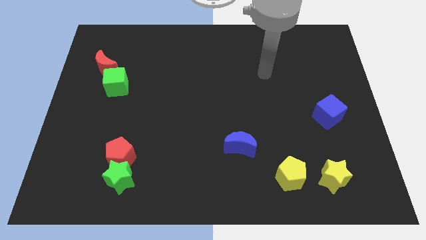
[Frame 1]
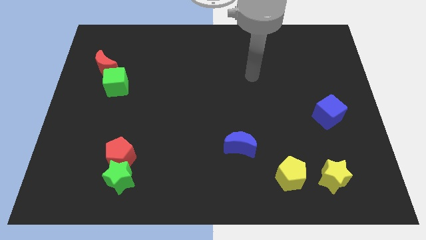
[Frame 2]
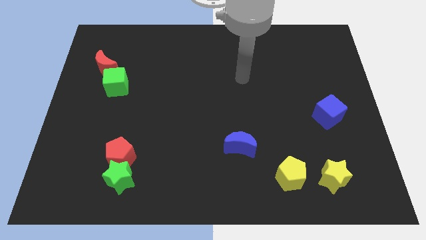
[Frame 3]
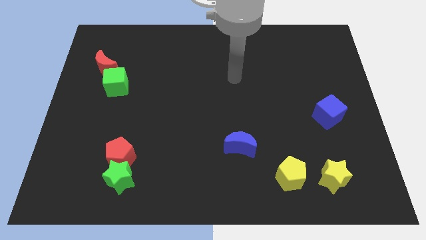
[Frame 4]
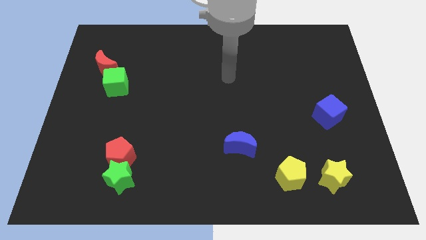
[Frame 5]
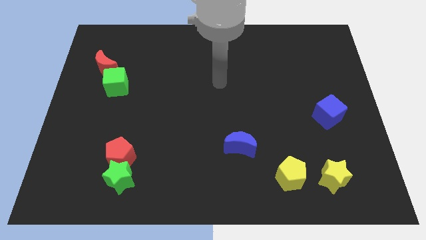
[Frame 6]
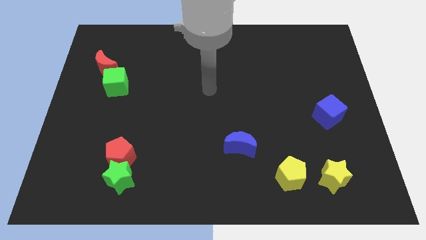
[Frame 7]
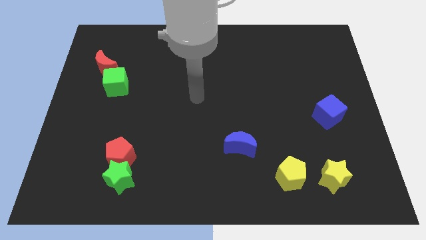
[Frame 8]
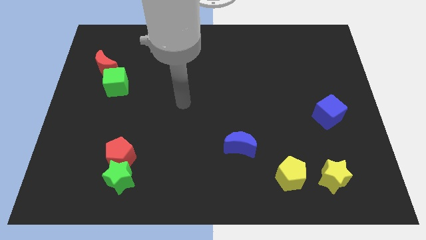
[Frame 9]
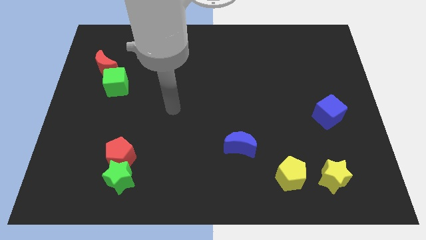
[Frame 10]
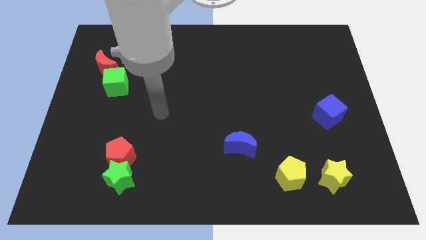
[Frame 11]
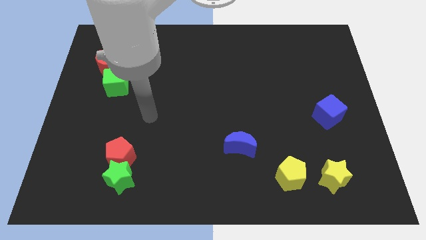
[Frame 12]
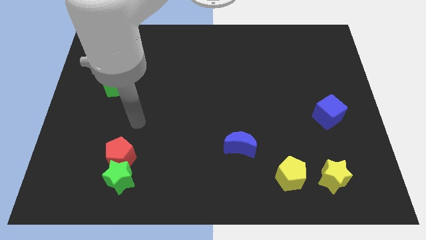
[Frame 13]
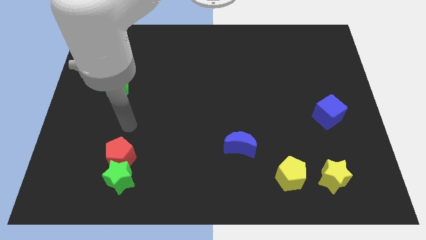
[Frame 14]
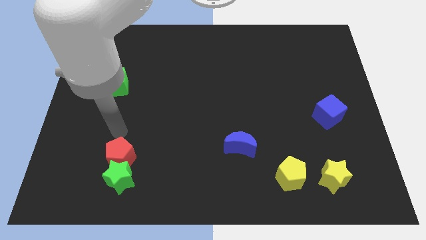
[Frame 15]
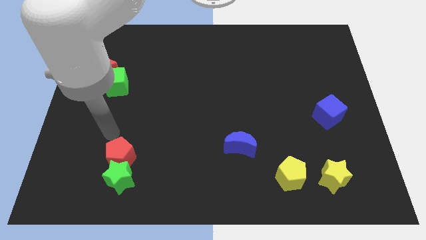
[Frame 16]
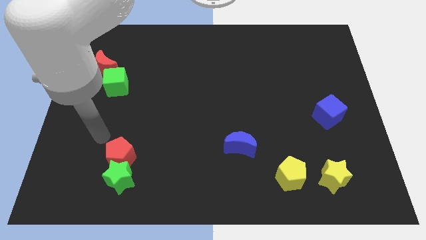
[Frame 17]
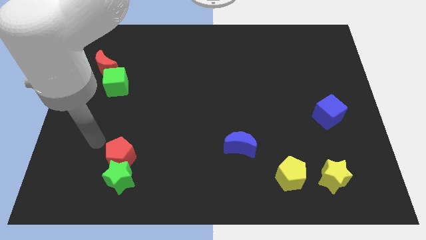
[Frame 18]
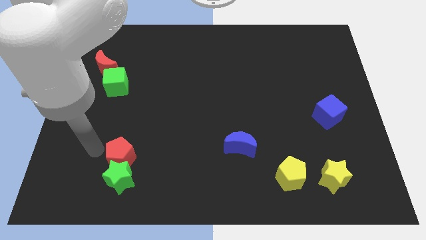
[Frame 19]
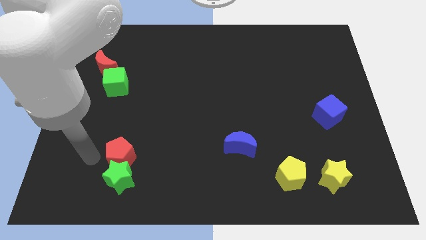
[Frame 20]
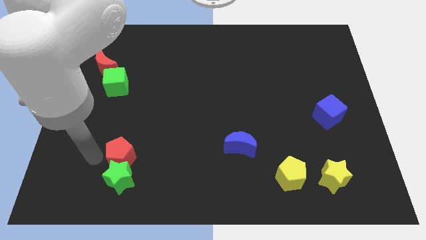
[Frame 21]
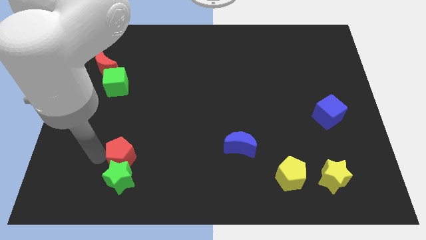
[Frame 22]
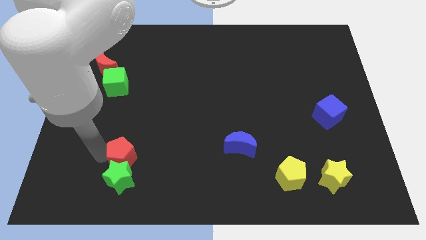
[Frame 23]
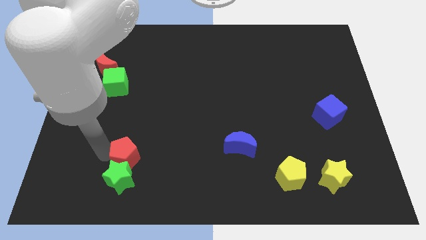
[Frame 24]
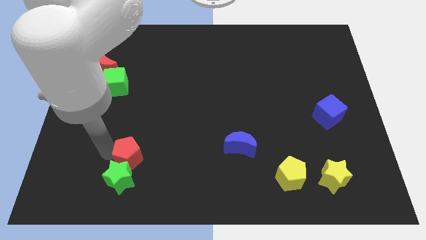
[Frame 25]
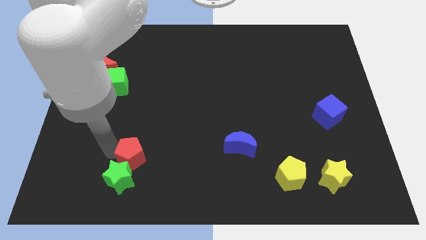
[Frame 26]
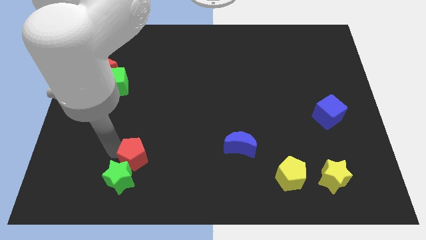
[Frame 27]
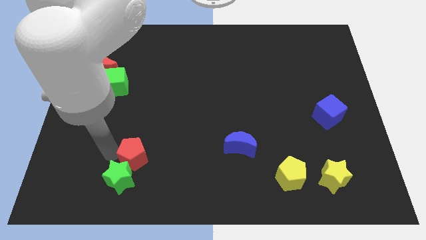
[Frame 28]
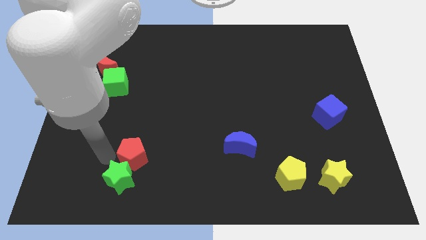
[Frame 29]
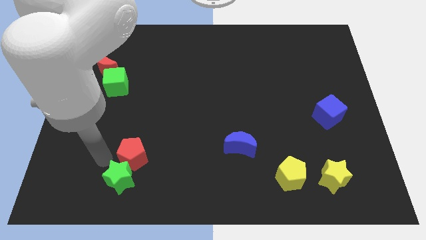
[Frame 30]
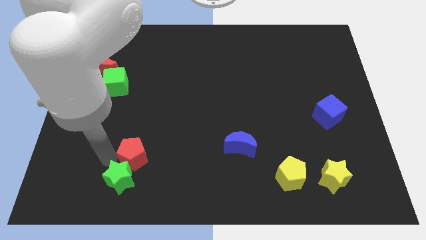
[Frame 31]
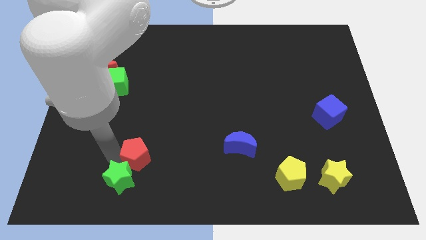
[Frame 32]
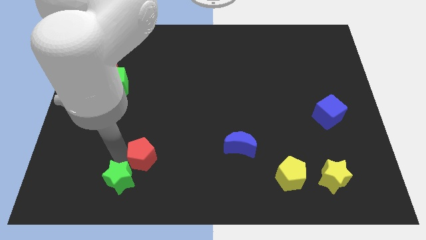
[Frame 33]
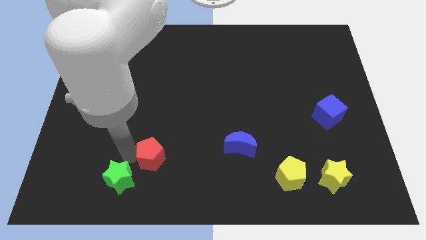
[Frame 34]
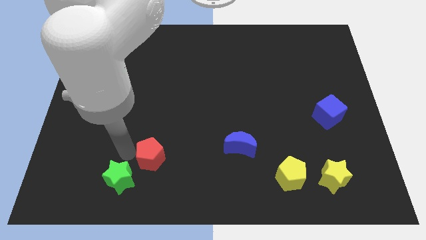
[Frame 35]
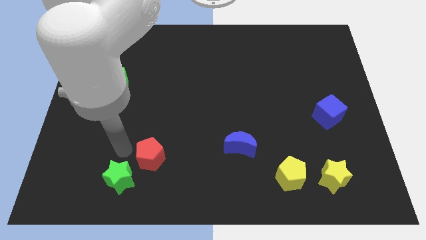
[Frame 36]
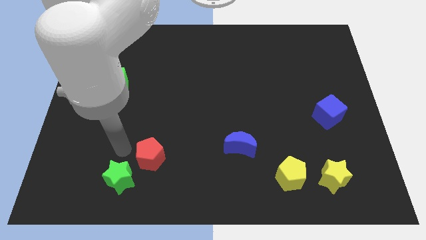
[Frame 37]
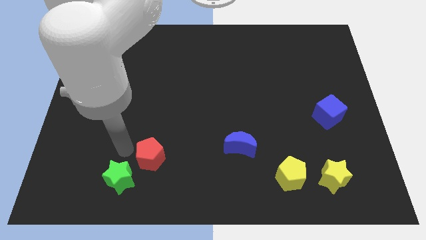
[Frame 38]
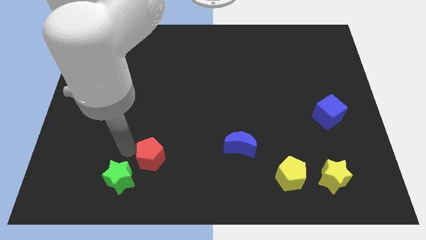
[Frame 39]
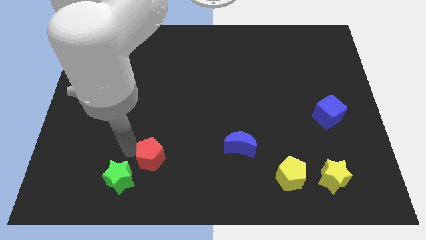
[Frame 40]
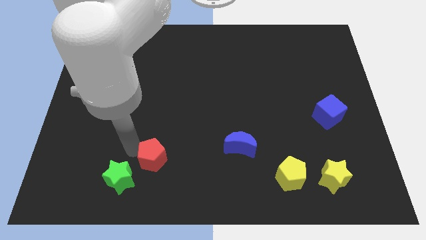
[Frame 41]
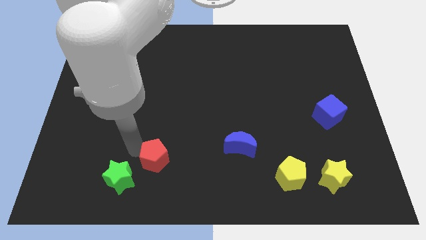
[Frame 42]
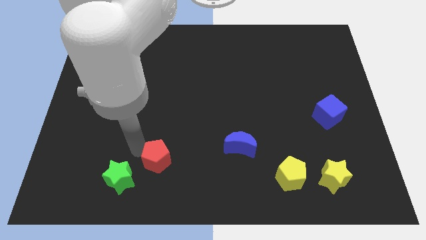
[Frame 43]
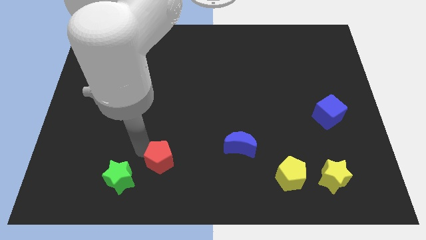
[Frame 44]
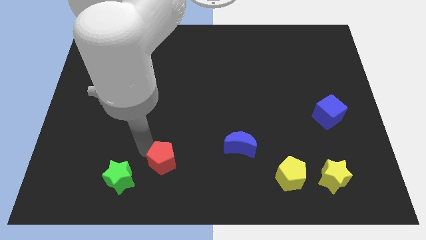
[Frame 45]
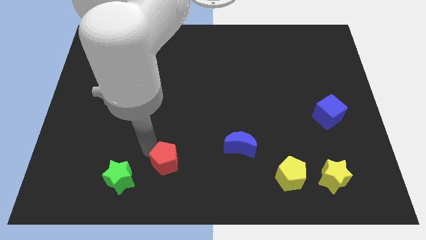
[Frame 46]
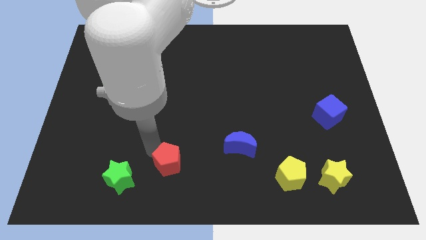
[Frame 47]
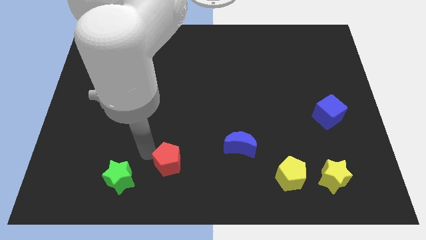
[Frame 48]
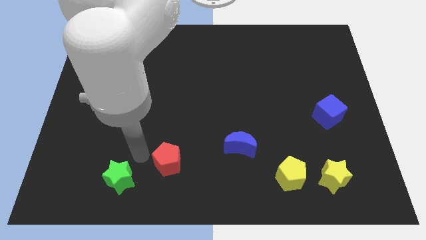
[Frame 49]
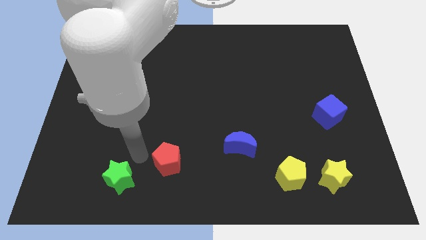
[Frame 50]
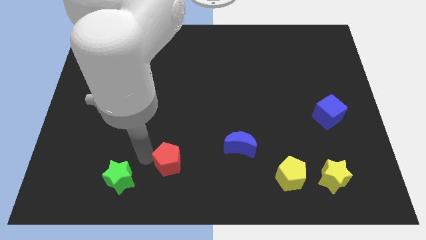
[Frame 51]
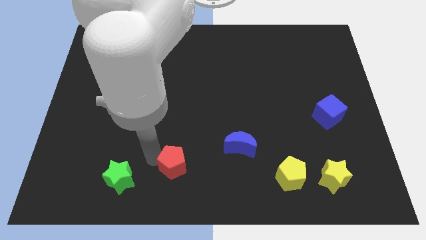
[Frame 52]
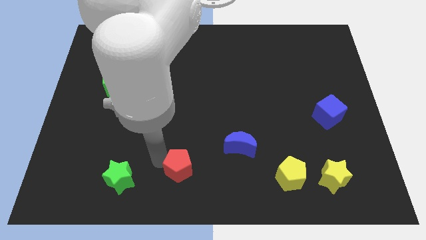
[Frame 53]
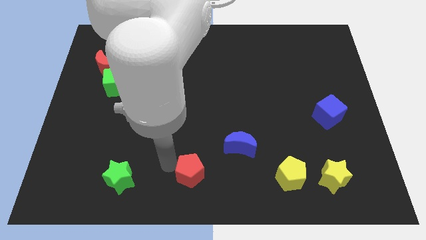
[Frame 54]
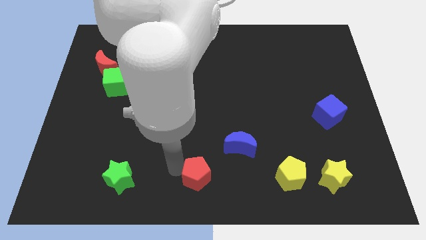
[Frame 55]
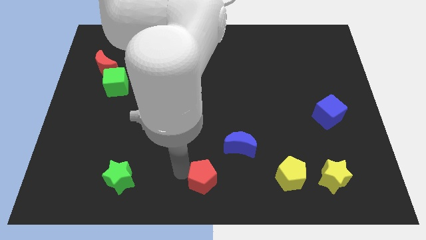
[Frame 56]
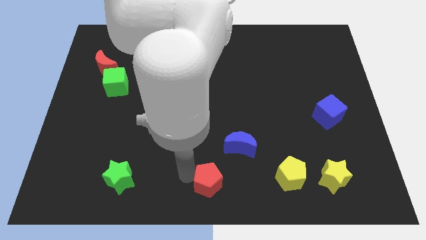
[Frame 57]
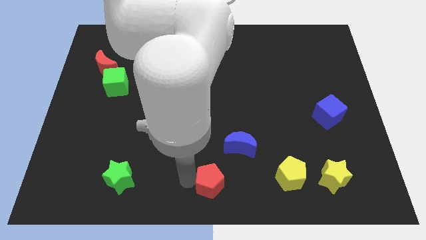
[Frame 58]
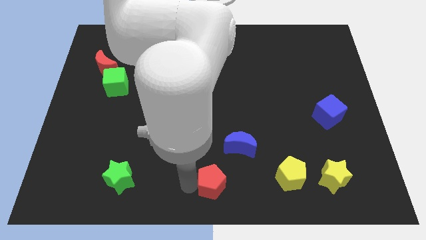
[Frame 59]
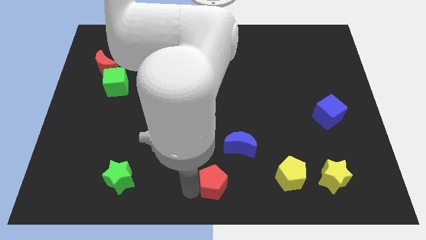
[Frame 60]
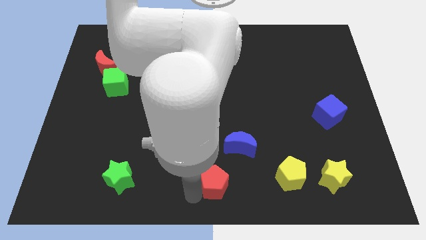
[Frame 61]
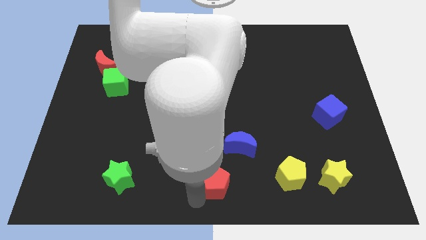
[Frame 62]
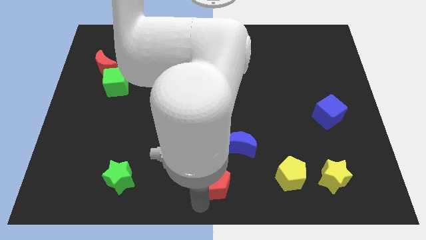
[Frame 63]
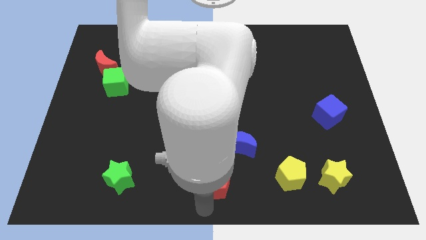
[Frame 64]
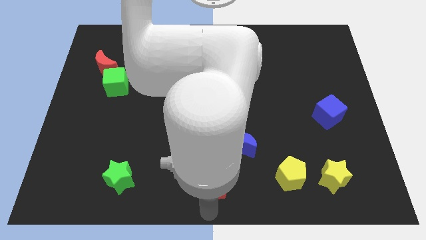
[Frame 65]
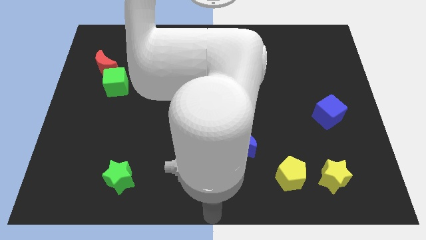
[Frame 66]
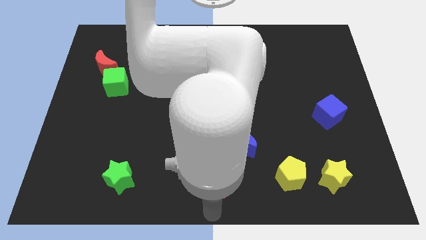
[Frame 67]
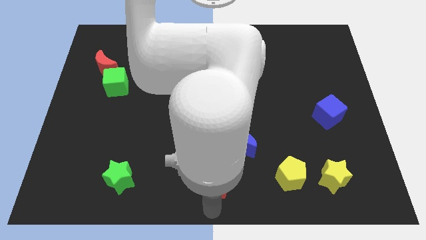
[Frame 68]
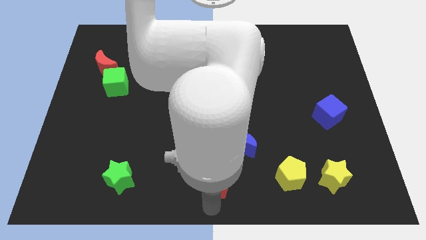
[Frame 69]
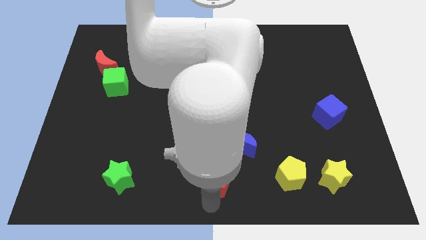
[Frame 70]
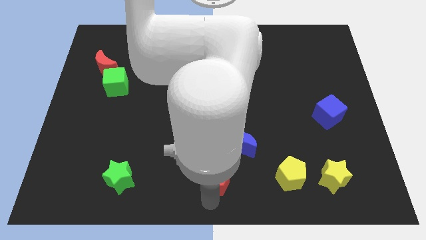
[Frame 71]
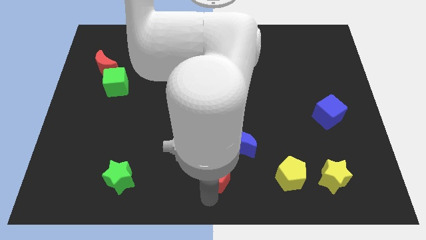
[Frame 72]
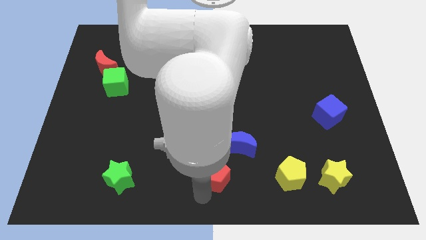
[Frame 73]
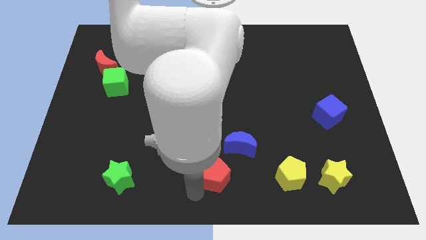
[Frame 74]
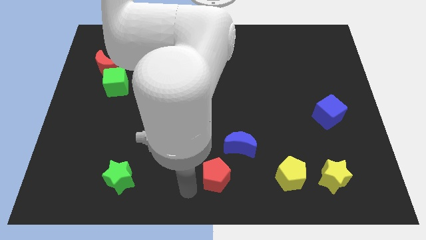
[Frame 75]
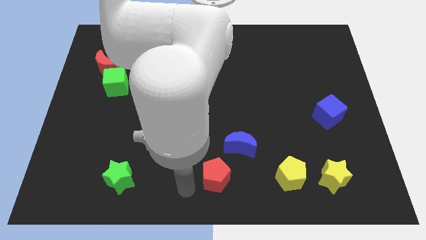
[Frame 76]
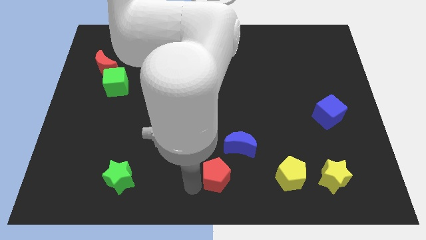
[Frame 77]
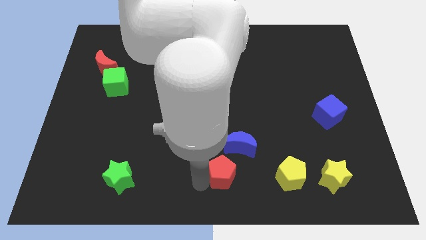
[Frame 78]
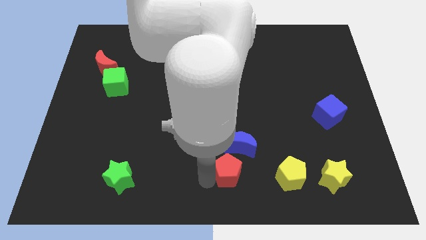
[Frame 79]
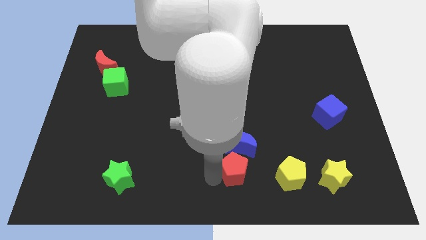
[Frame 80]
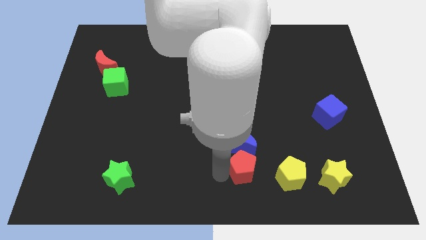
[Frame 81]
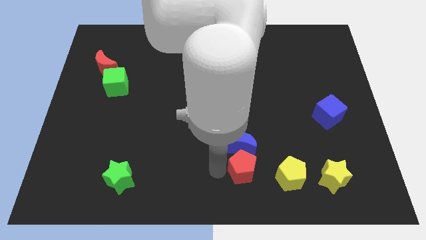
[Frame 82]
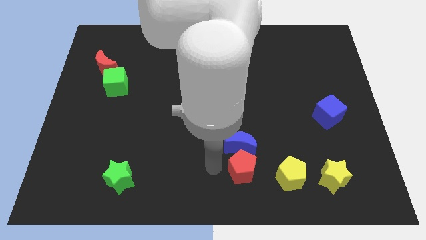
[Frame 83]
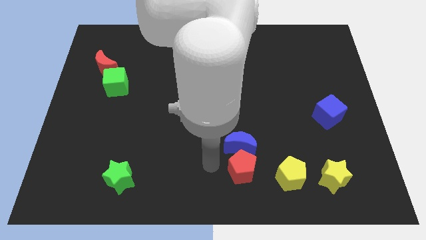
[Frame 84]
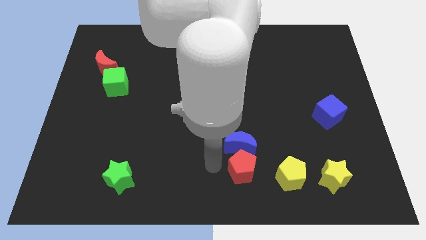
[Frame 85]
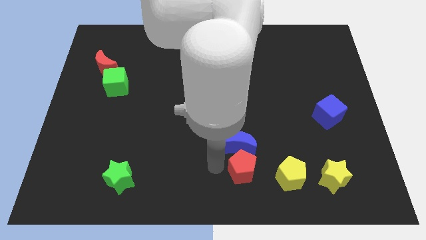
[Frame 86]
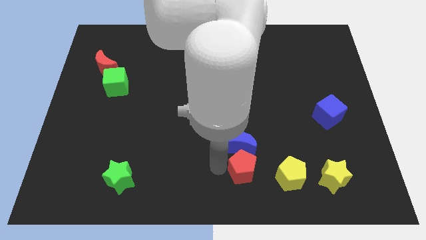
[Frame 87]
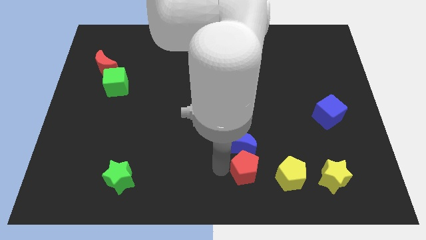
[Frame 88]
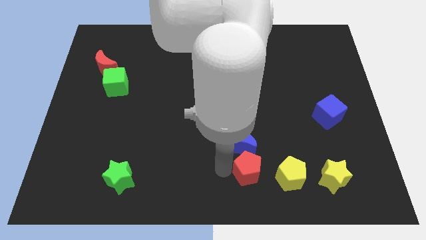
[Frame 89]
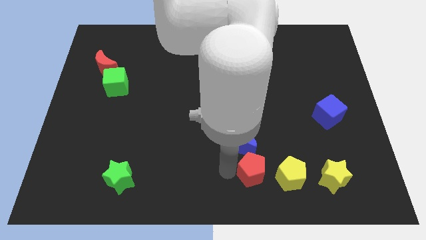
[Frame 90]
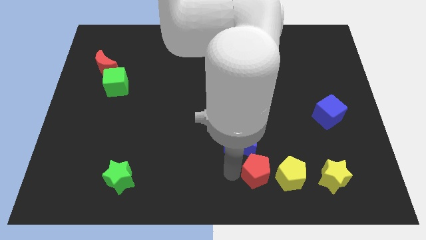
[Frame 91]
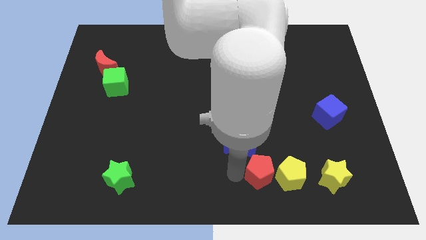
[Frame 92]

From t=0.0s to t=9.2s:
put the red pentagon next to the yellow pentagon
